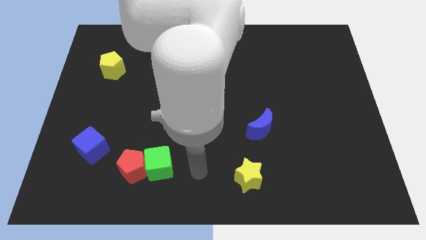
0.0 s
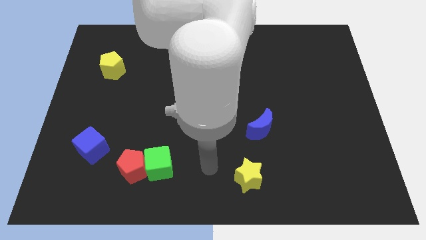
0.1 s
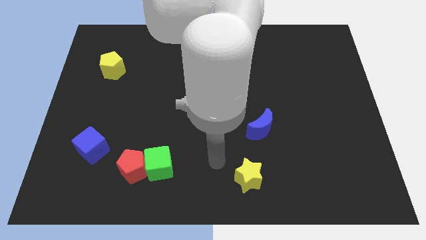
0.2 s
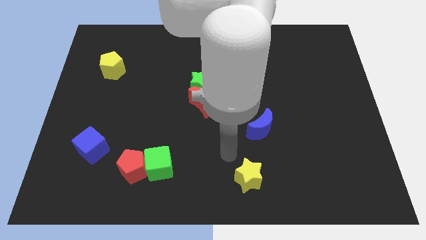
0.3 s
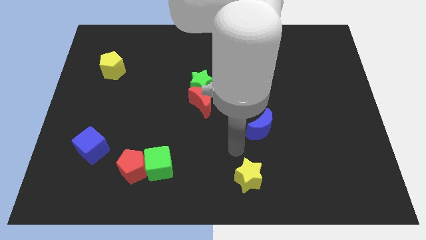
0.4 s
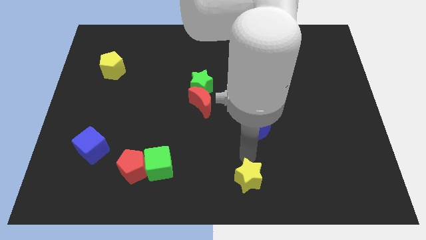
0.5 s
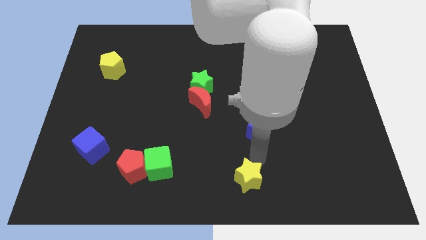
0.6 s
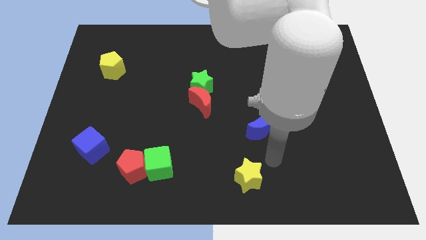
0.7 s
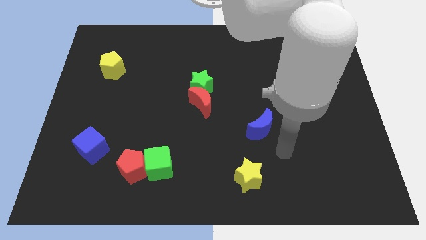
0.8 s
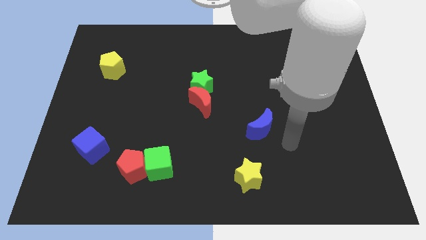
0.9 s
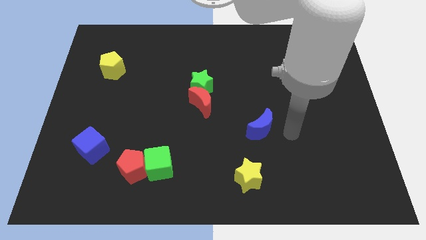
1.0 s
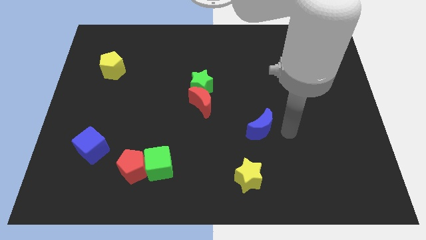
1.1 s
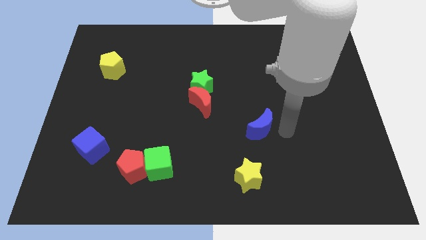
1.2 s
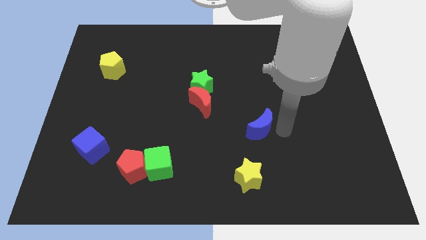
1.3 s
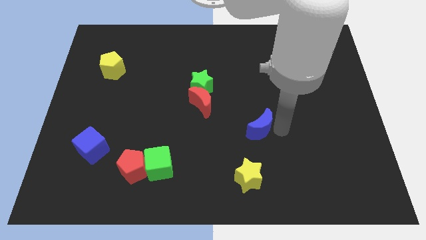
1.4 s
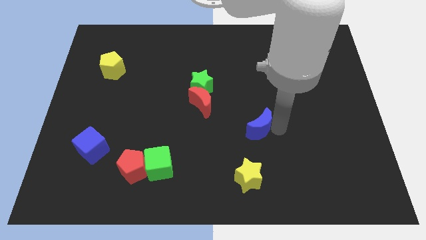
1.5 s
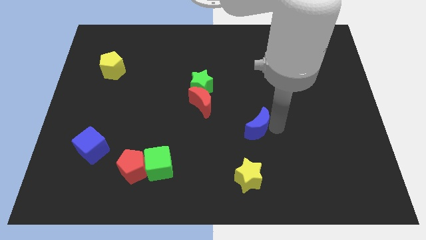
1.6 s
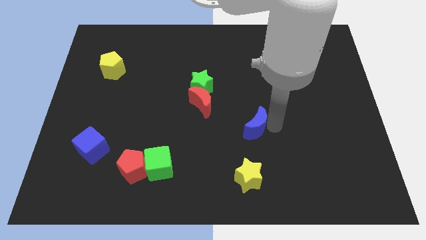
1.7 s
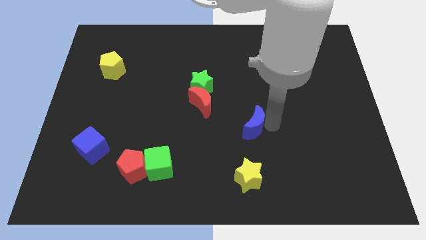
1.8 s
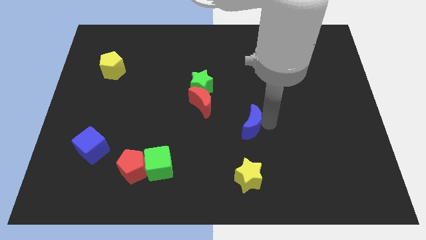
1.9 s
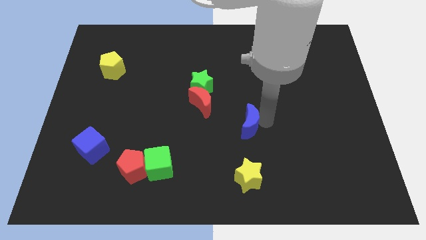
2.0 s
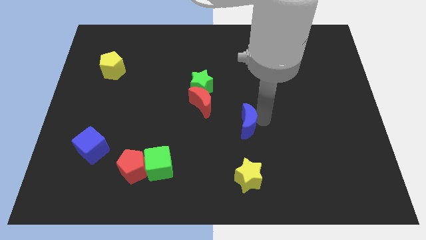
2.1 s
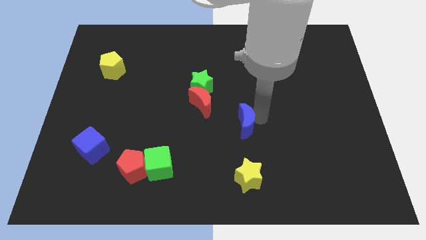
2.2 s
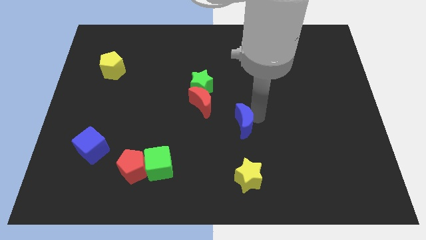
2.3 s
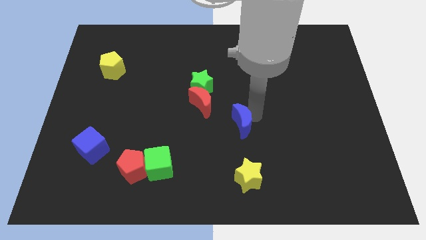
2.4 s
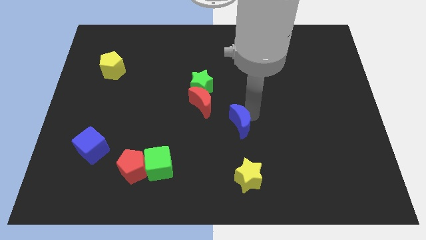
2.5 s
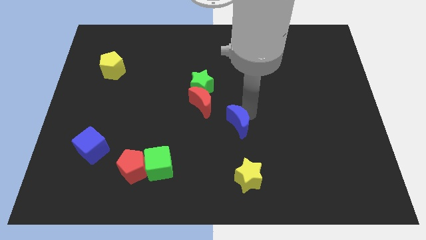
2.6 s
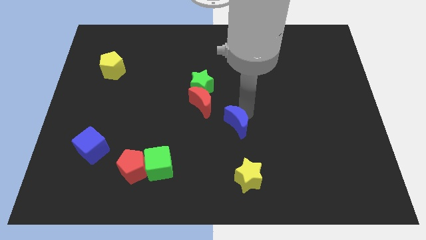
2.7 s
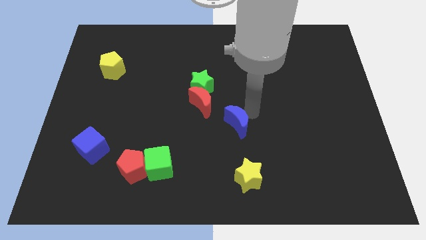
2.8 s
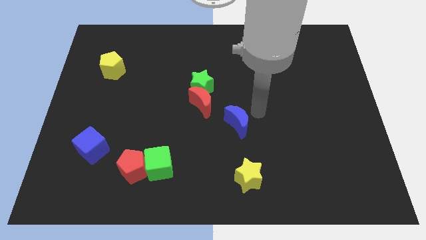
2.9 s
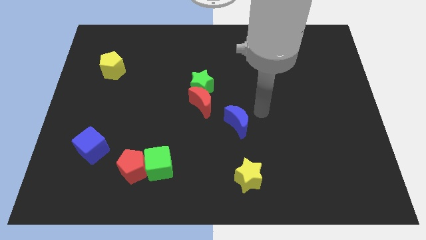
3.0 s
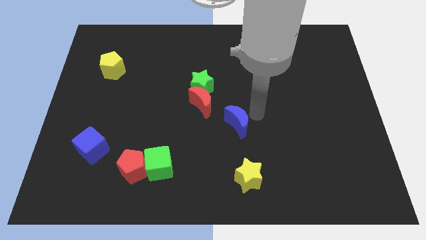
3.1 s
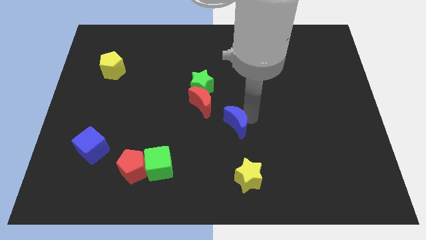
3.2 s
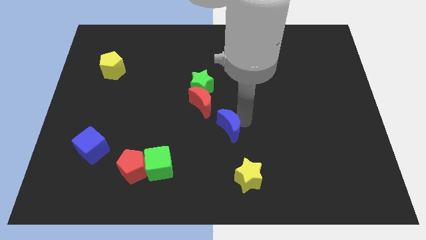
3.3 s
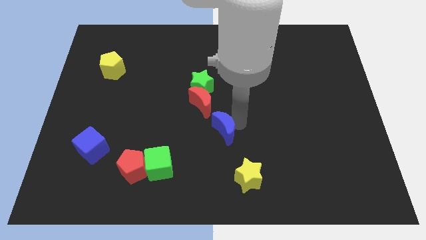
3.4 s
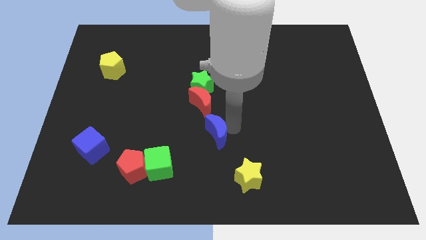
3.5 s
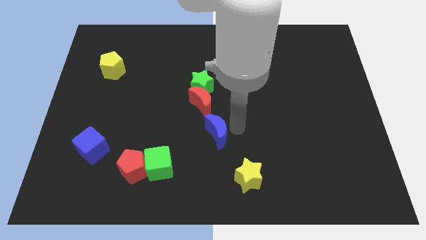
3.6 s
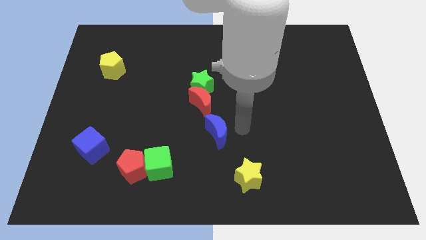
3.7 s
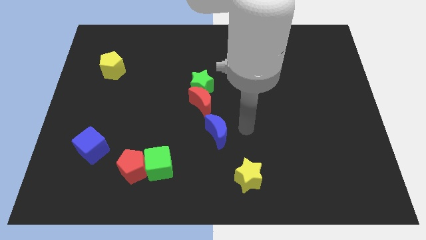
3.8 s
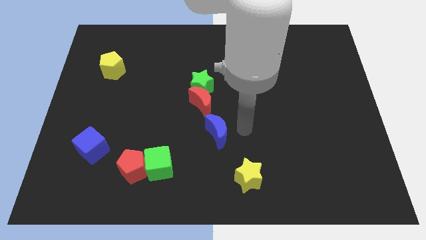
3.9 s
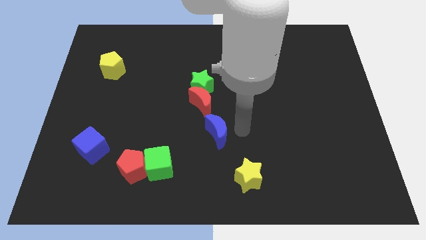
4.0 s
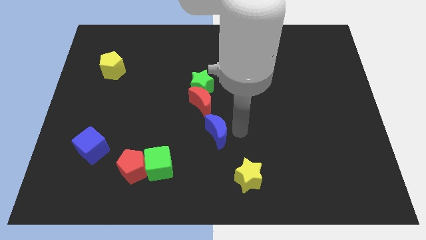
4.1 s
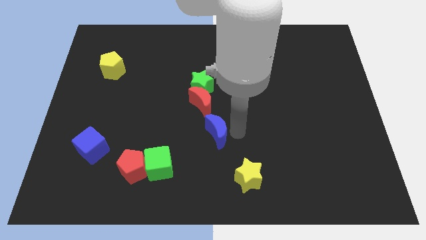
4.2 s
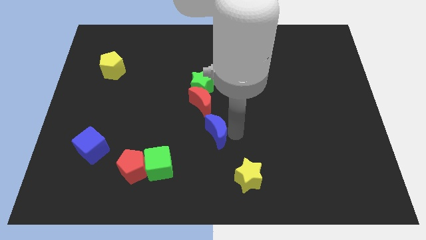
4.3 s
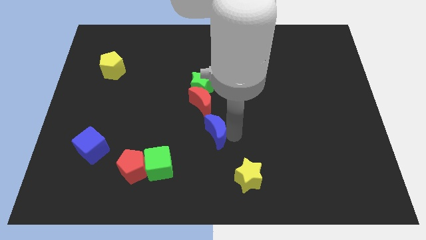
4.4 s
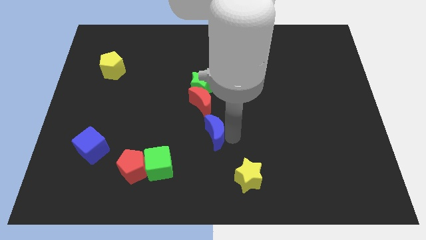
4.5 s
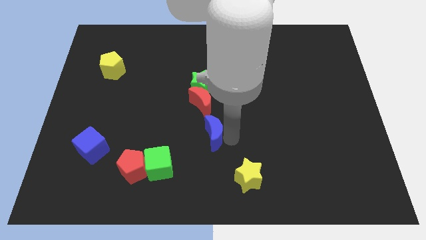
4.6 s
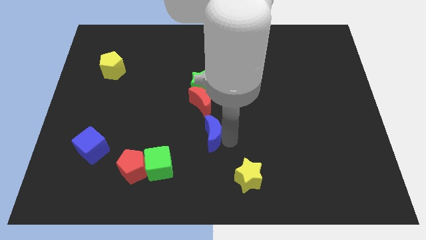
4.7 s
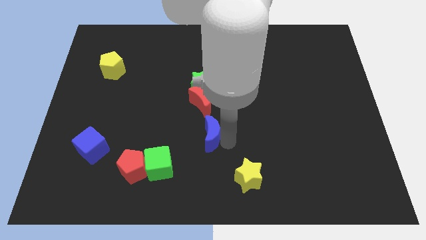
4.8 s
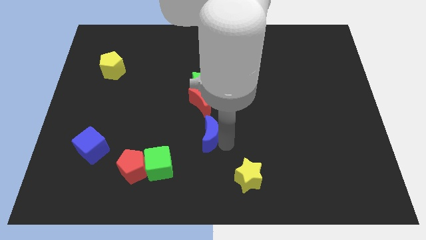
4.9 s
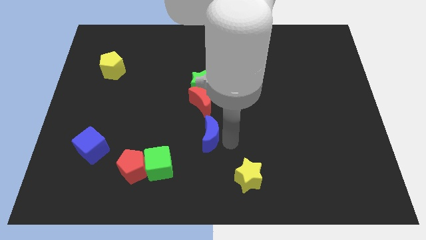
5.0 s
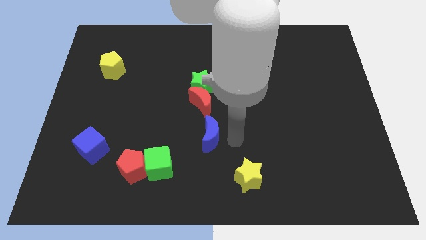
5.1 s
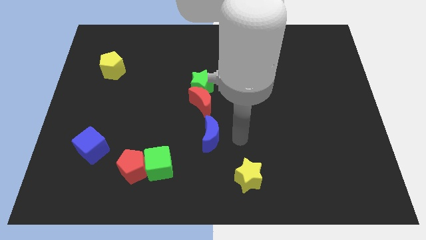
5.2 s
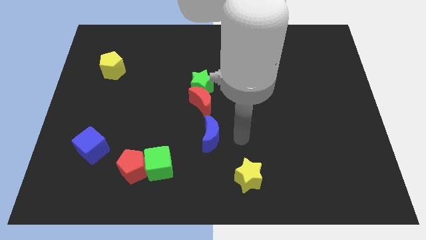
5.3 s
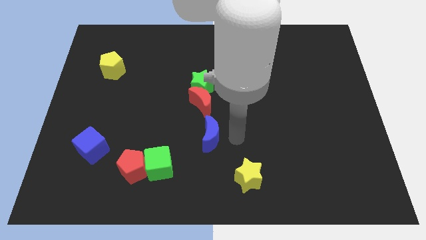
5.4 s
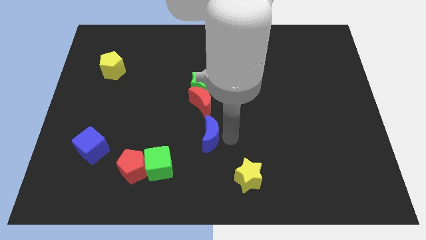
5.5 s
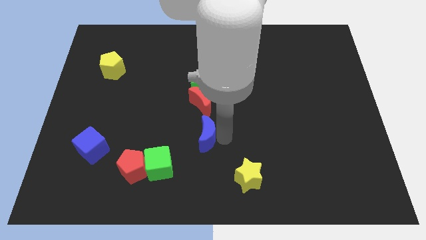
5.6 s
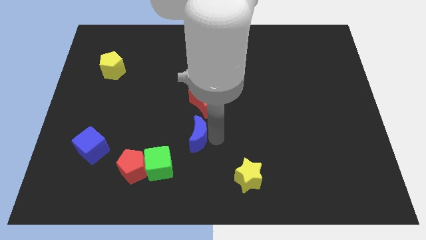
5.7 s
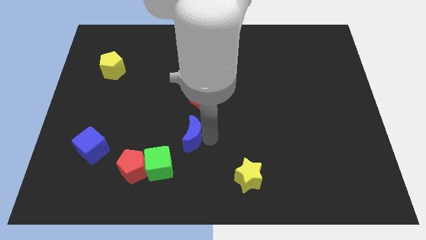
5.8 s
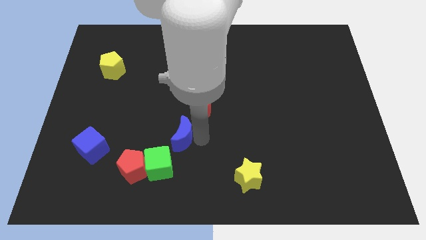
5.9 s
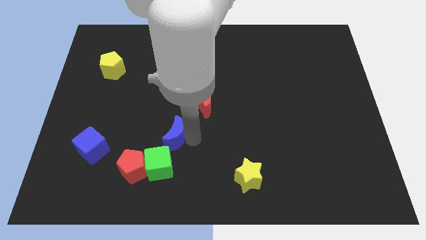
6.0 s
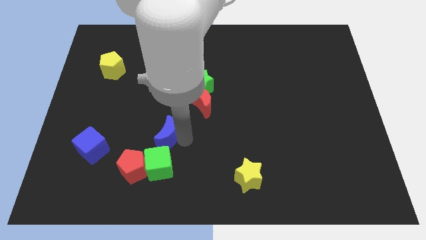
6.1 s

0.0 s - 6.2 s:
slide the blue moon to the left

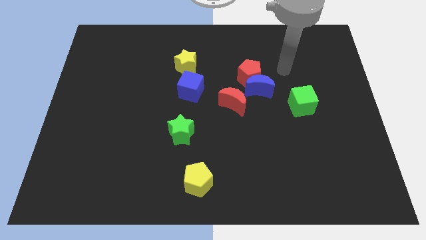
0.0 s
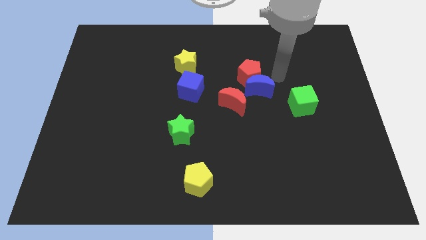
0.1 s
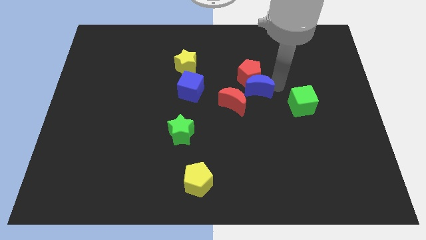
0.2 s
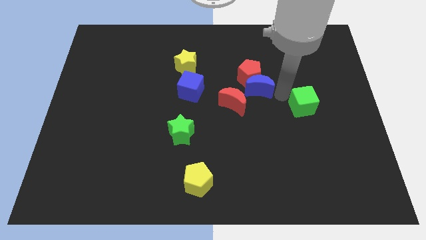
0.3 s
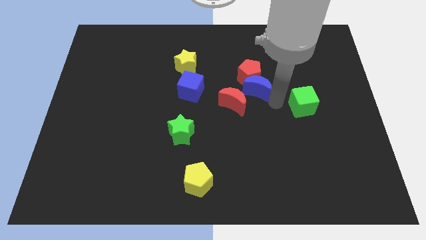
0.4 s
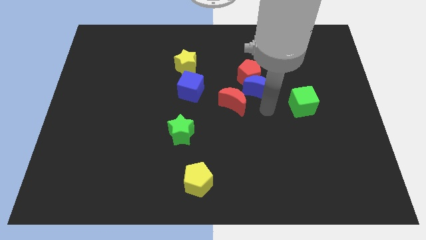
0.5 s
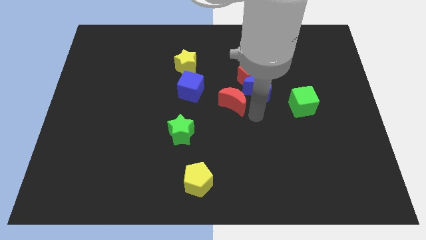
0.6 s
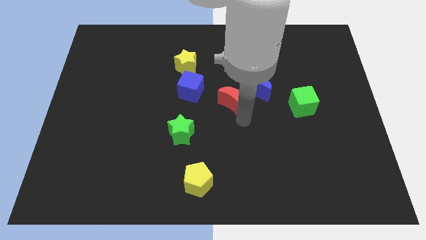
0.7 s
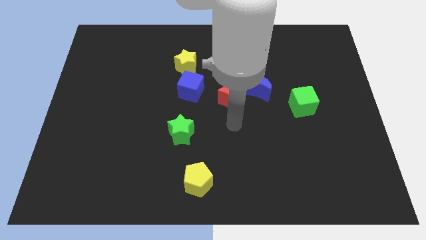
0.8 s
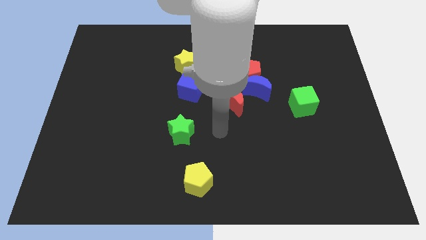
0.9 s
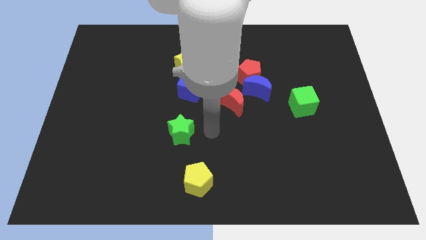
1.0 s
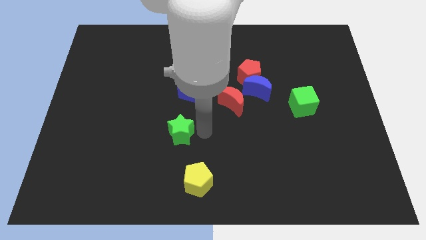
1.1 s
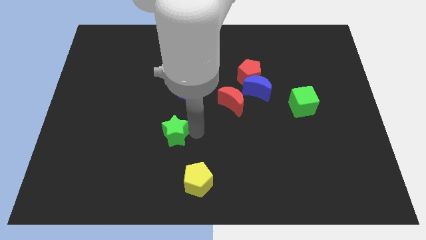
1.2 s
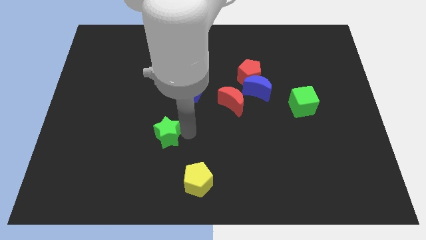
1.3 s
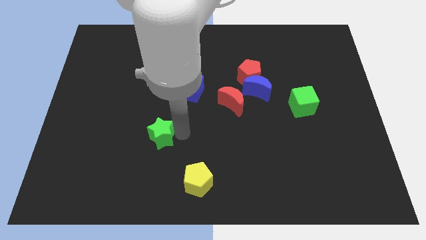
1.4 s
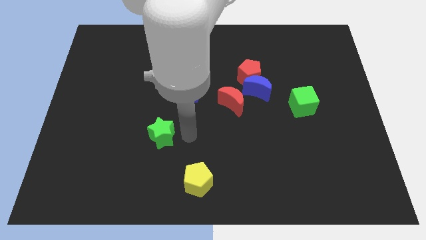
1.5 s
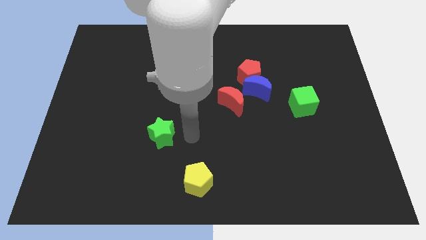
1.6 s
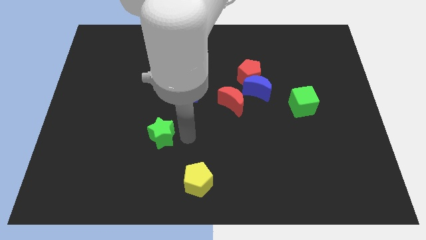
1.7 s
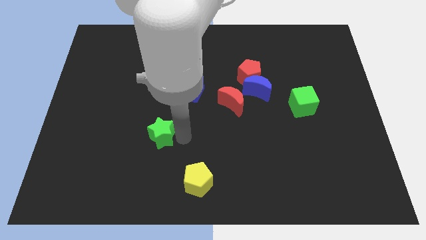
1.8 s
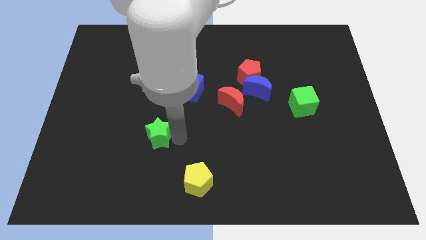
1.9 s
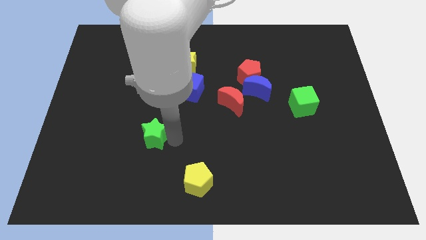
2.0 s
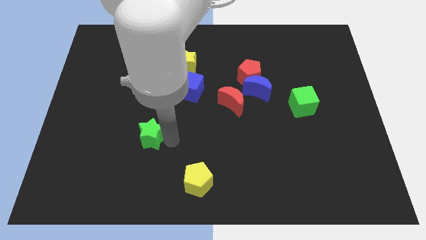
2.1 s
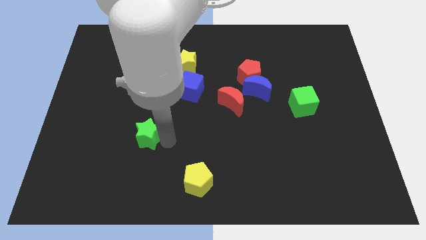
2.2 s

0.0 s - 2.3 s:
move the green star left a little
